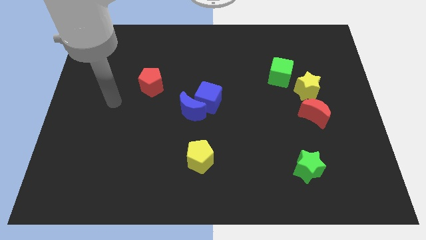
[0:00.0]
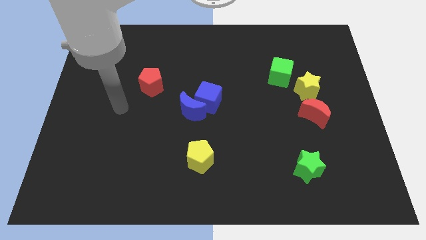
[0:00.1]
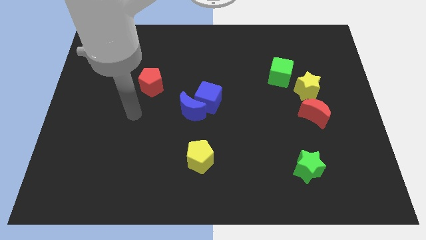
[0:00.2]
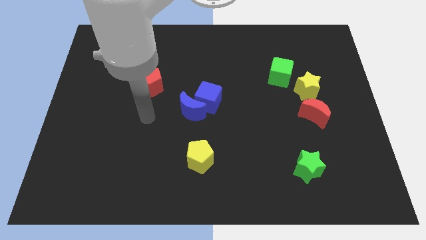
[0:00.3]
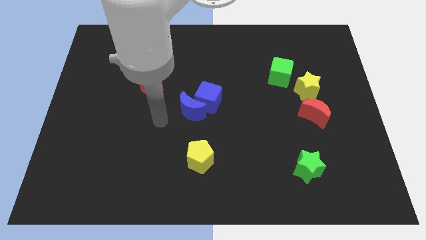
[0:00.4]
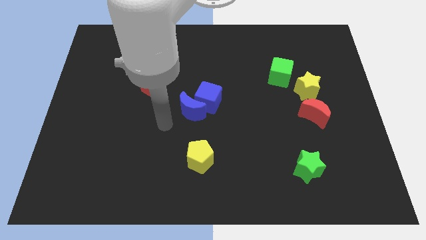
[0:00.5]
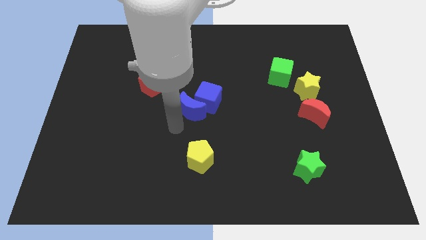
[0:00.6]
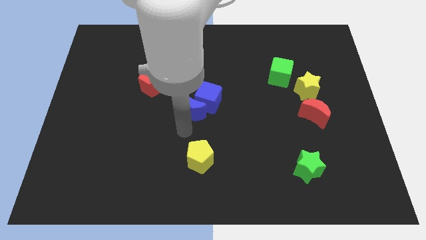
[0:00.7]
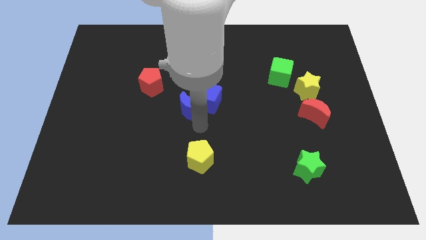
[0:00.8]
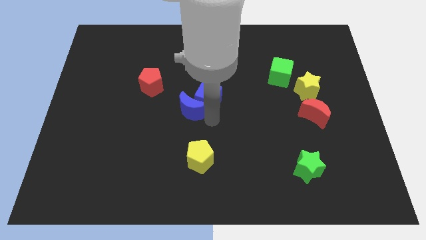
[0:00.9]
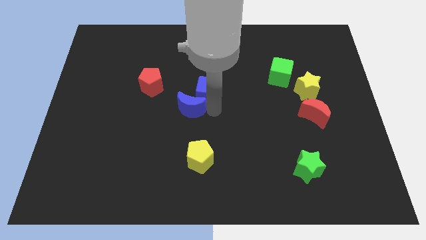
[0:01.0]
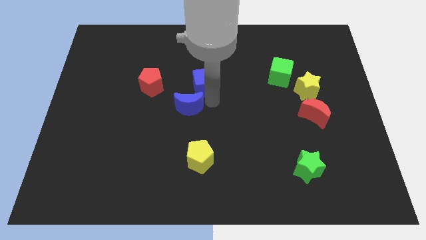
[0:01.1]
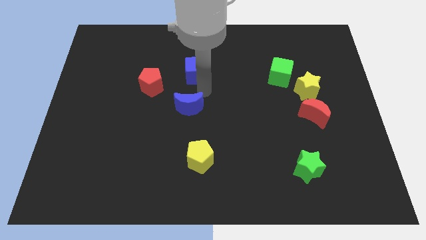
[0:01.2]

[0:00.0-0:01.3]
pull the blue moon apart from the blue cube

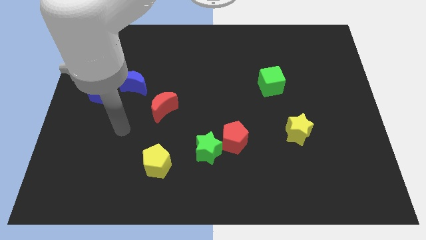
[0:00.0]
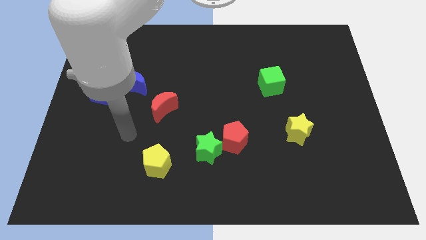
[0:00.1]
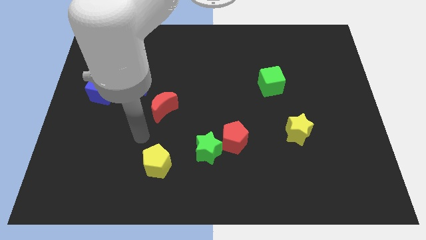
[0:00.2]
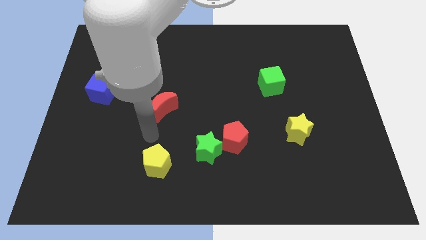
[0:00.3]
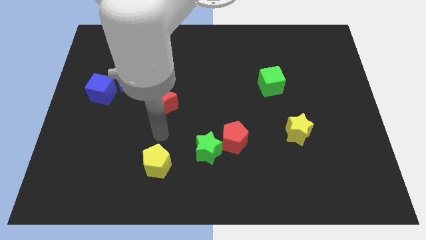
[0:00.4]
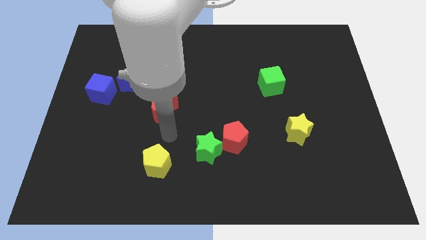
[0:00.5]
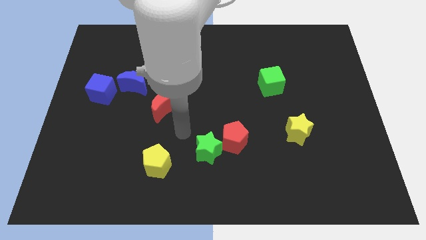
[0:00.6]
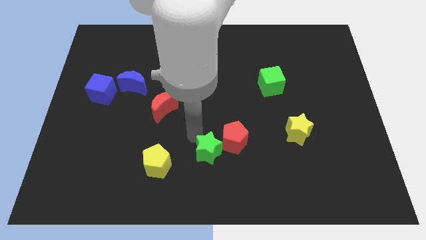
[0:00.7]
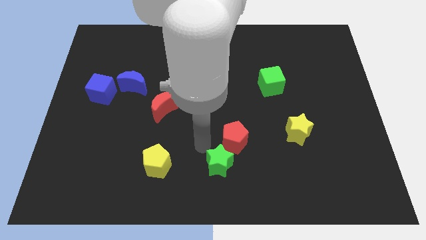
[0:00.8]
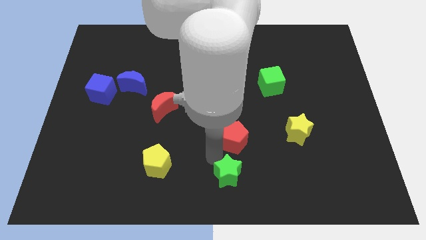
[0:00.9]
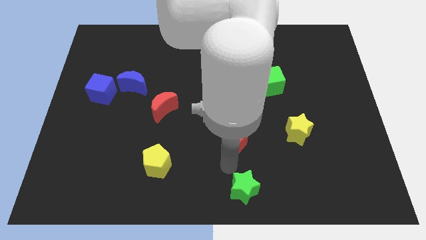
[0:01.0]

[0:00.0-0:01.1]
pull the red pentagon apart from the green star

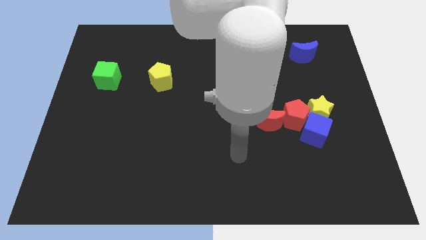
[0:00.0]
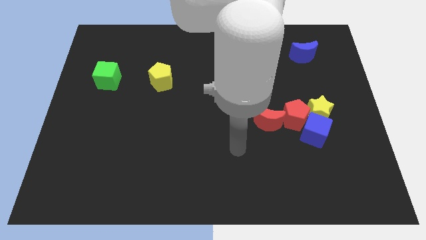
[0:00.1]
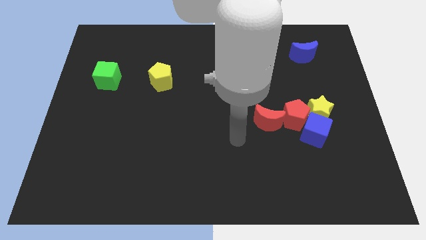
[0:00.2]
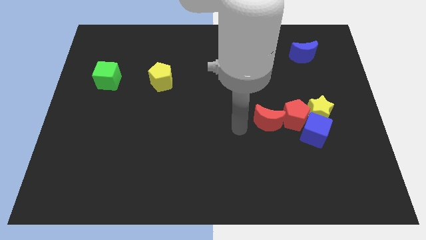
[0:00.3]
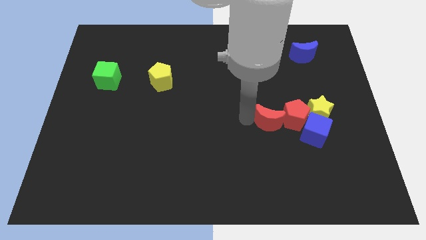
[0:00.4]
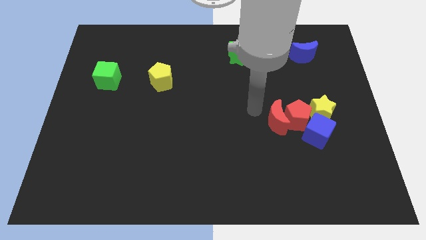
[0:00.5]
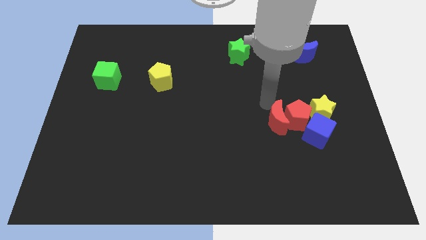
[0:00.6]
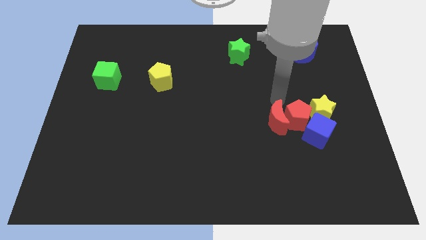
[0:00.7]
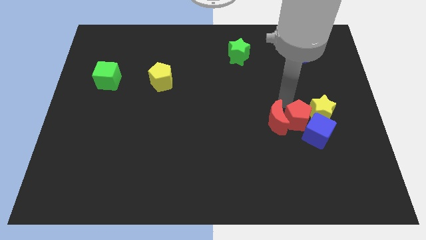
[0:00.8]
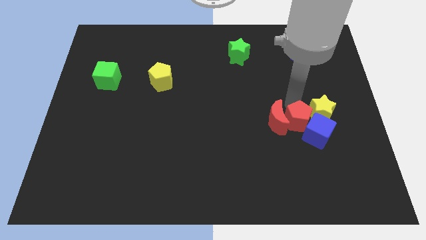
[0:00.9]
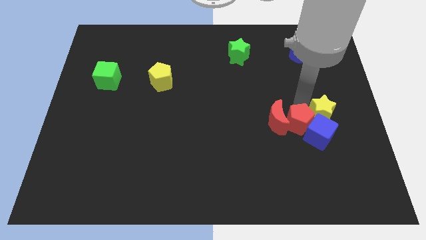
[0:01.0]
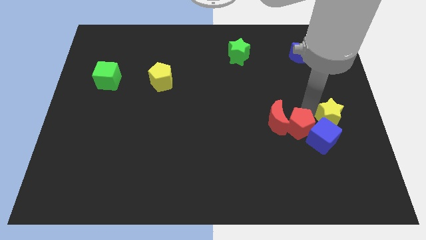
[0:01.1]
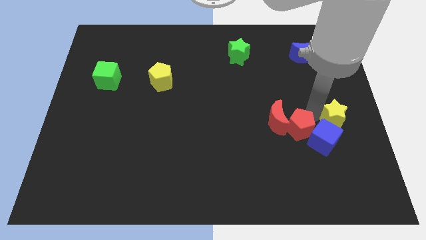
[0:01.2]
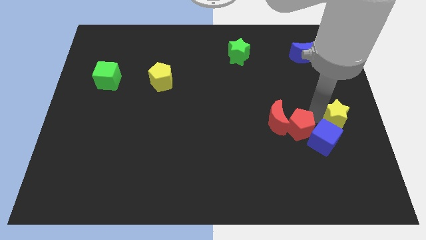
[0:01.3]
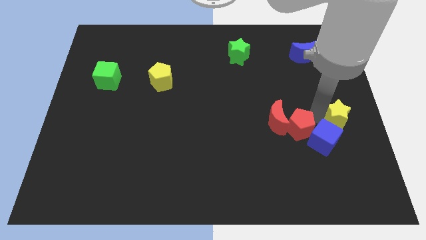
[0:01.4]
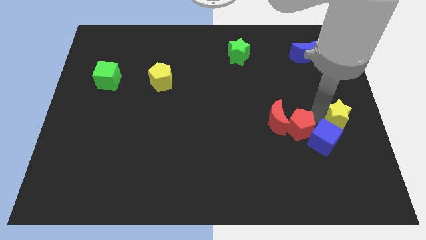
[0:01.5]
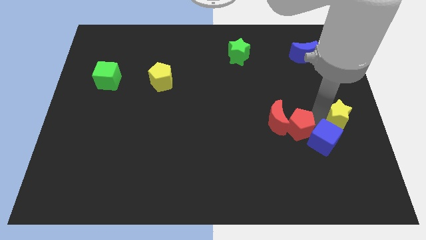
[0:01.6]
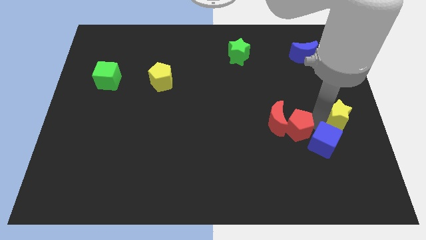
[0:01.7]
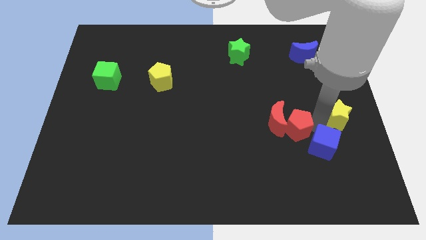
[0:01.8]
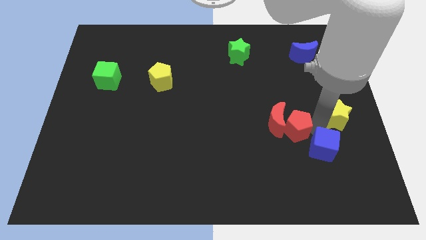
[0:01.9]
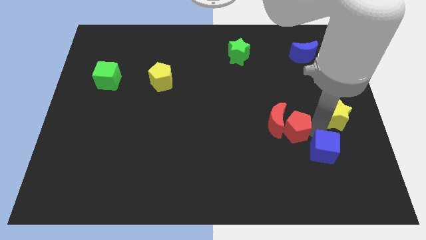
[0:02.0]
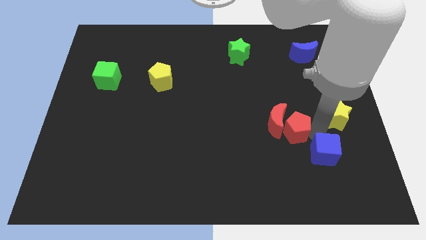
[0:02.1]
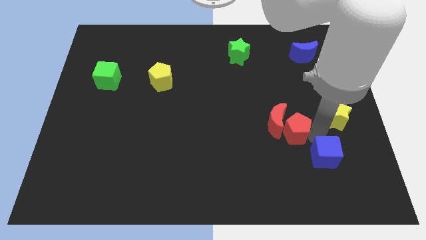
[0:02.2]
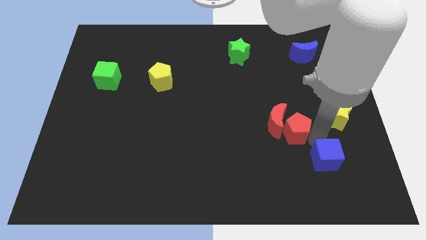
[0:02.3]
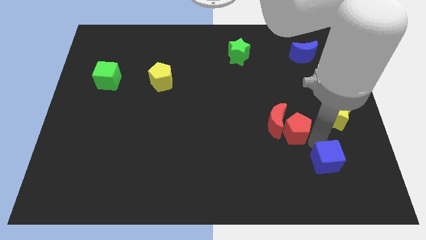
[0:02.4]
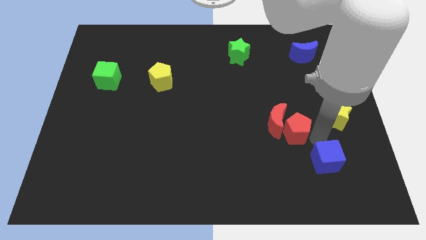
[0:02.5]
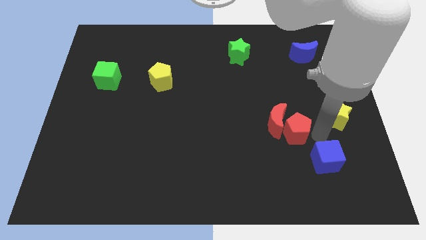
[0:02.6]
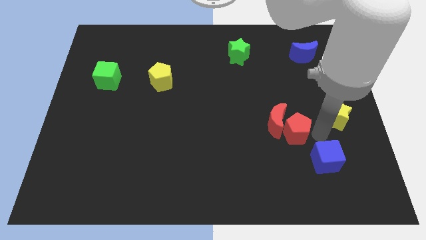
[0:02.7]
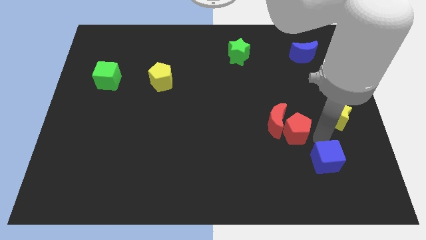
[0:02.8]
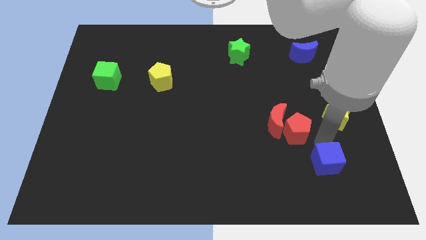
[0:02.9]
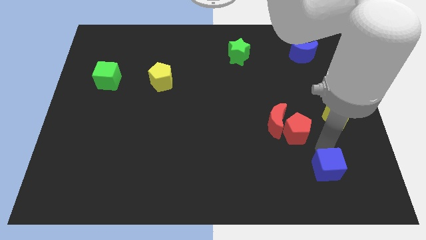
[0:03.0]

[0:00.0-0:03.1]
separate the blue cube from the yellow star and red pentagon

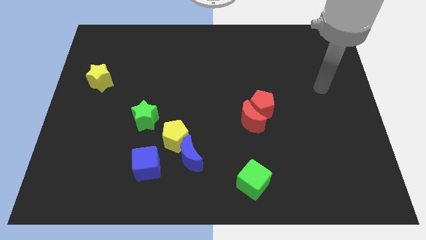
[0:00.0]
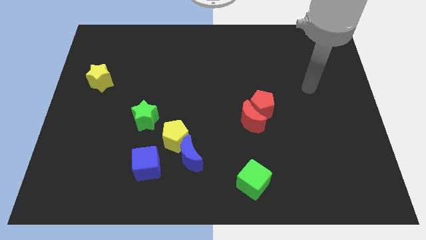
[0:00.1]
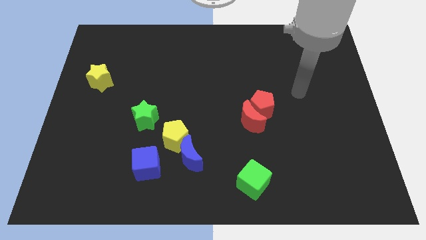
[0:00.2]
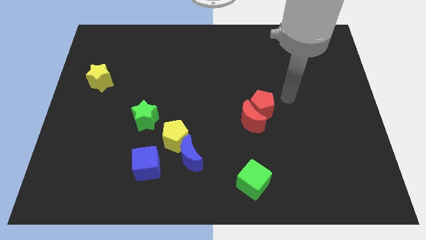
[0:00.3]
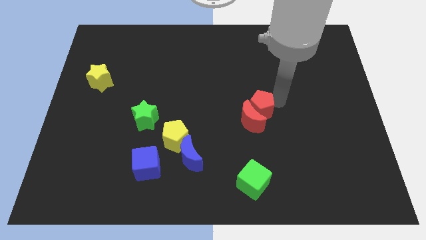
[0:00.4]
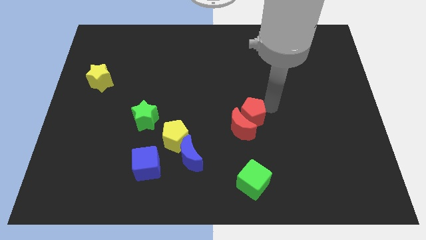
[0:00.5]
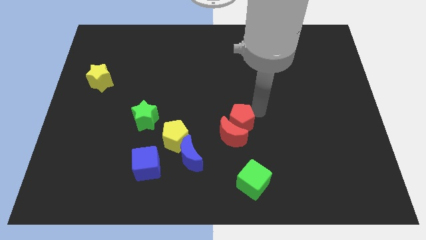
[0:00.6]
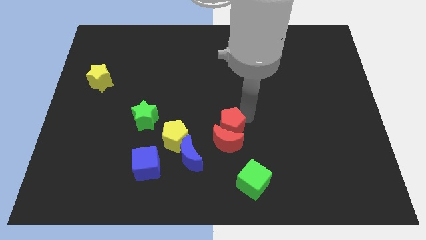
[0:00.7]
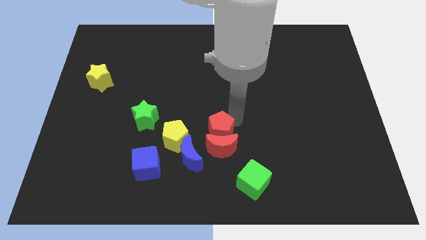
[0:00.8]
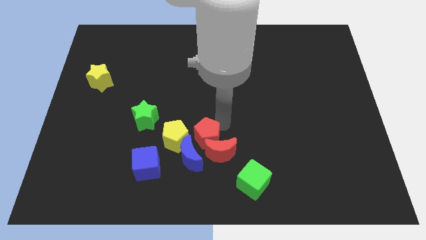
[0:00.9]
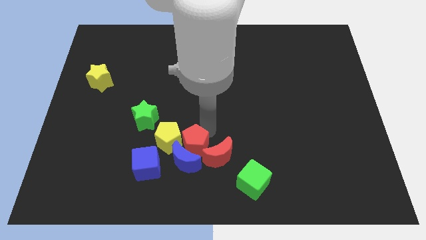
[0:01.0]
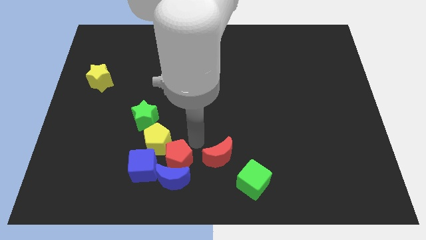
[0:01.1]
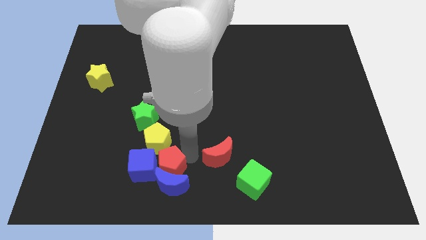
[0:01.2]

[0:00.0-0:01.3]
pull the red moon apart from the red pentagon

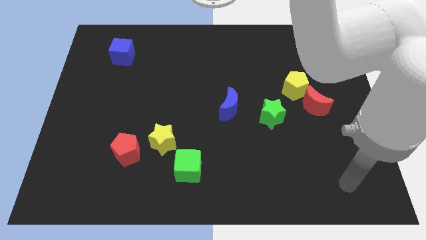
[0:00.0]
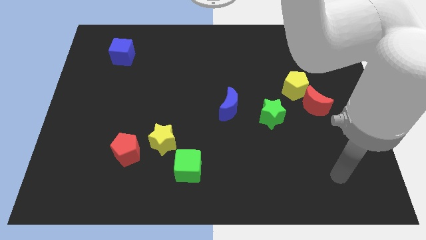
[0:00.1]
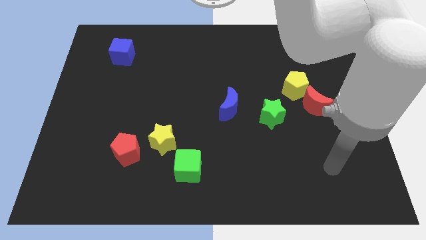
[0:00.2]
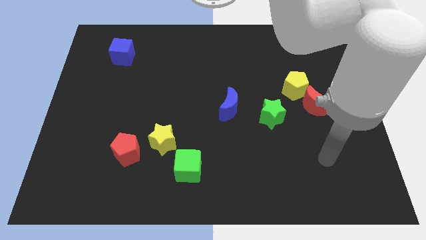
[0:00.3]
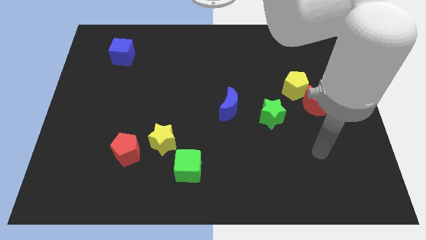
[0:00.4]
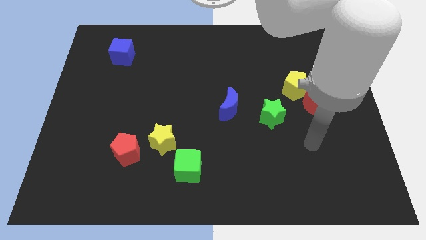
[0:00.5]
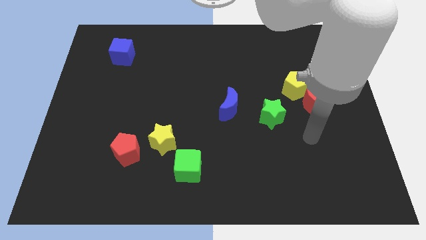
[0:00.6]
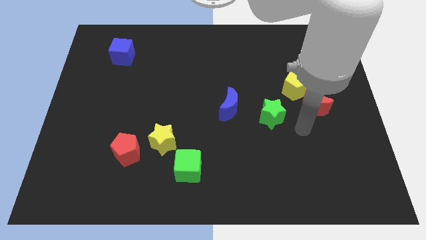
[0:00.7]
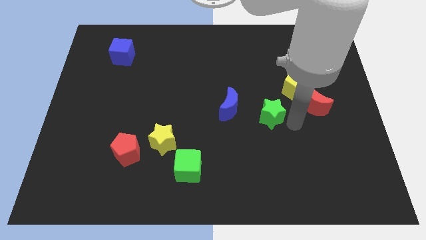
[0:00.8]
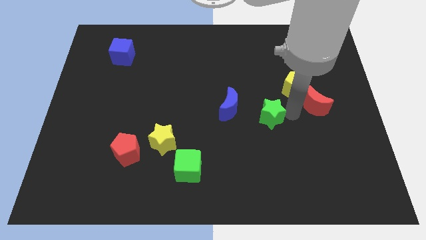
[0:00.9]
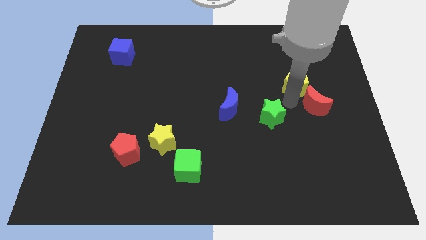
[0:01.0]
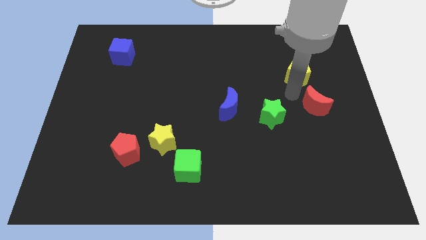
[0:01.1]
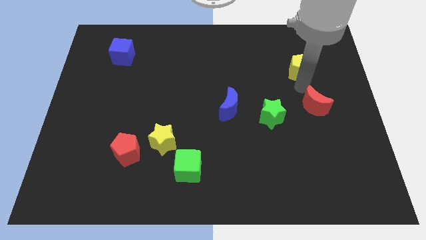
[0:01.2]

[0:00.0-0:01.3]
separate the red moon from the yellow pentagon

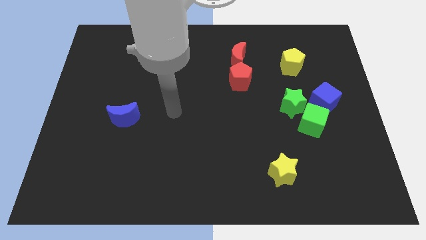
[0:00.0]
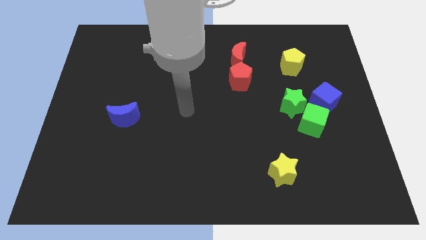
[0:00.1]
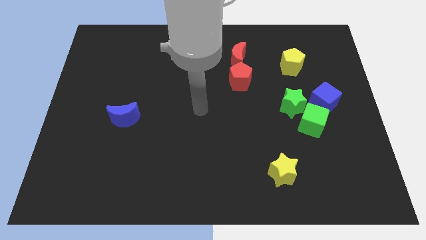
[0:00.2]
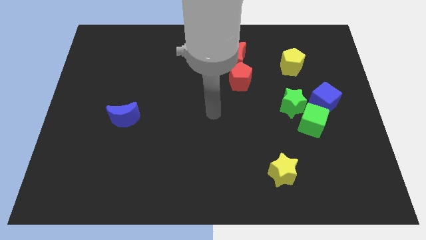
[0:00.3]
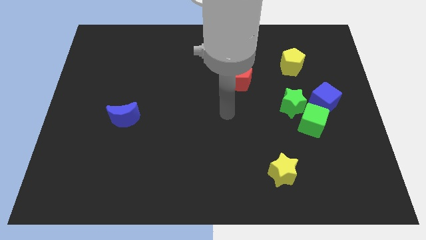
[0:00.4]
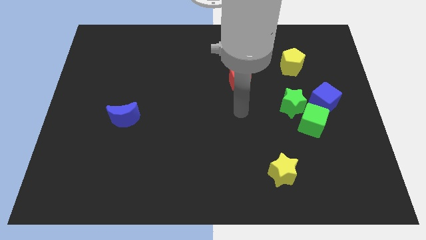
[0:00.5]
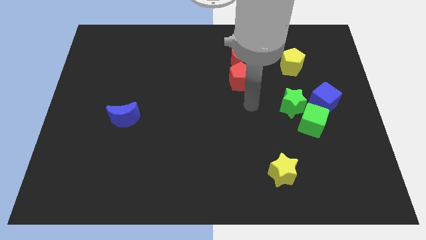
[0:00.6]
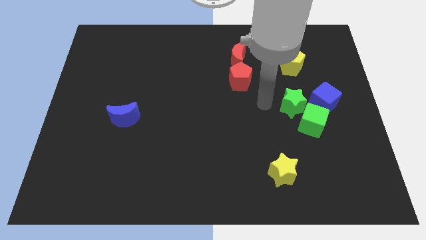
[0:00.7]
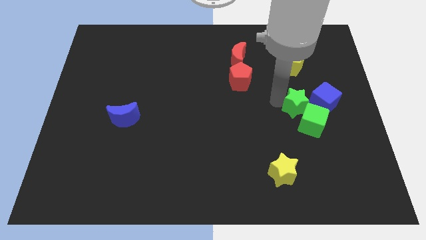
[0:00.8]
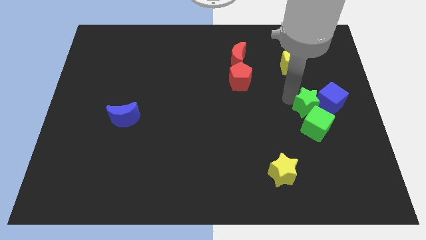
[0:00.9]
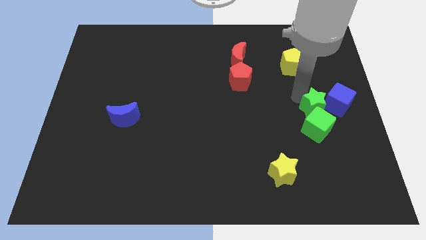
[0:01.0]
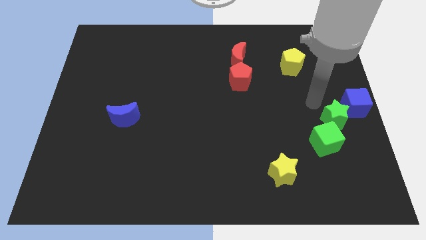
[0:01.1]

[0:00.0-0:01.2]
pull the green cube apart from the green star and blue cube
